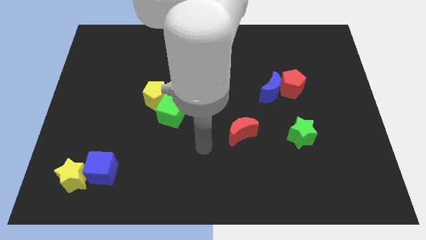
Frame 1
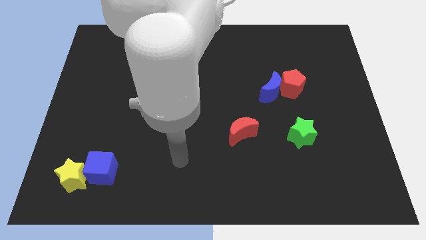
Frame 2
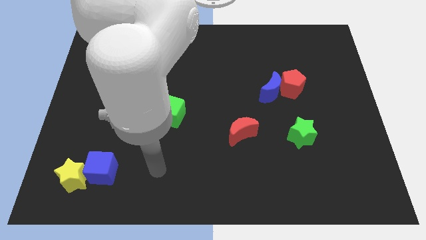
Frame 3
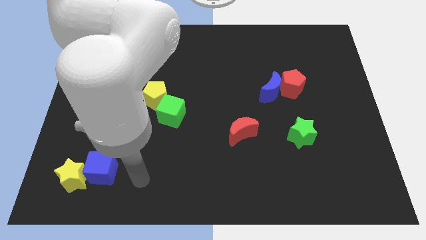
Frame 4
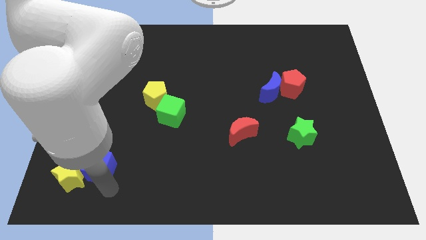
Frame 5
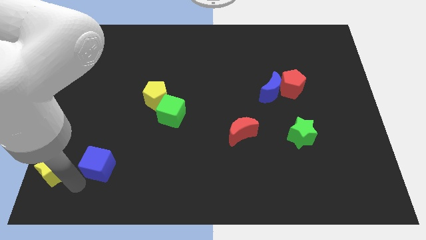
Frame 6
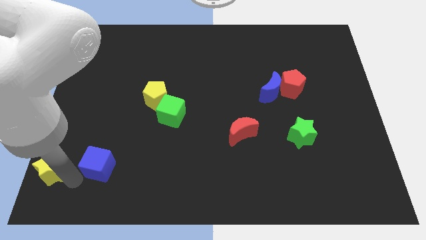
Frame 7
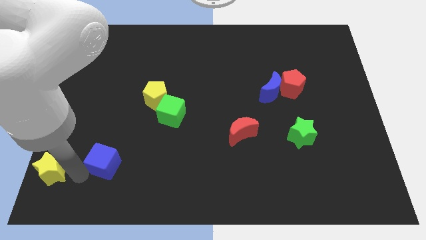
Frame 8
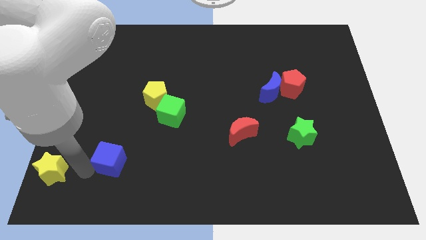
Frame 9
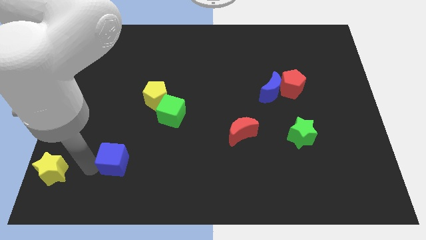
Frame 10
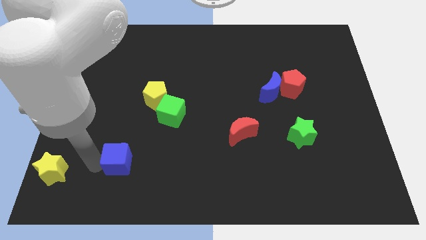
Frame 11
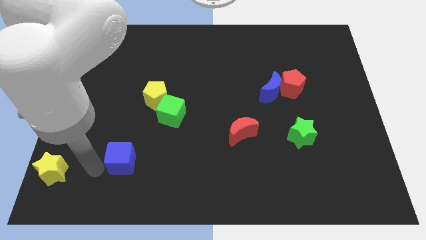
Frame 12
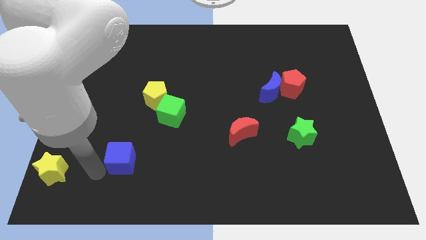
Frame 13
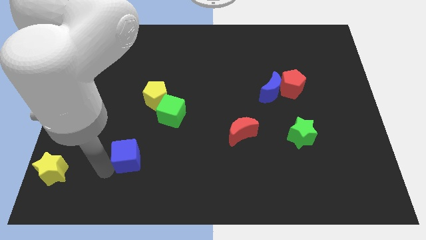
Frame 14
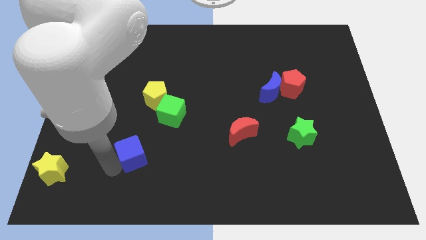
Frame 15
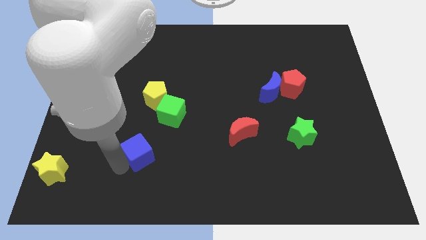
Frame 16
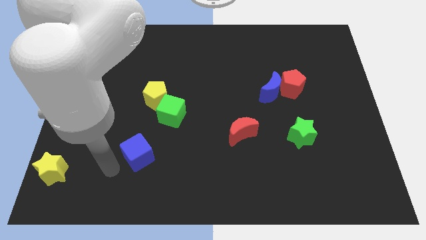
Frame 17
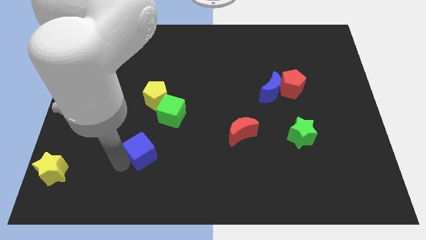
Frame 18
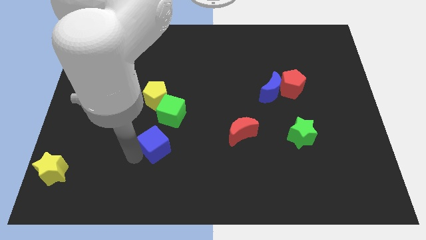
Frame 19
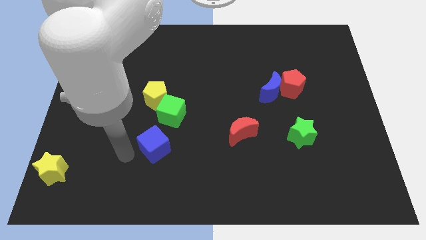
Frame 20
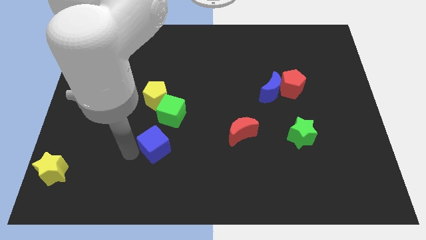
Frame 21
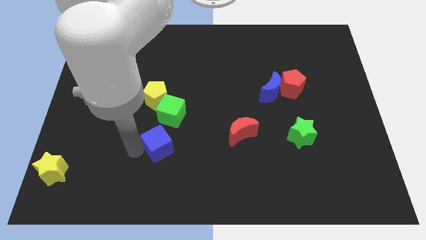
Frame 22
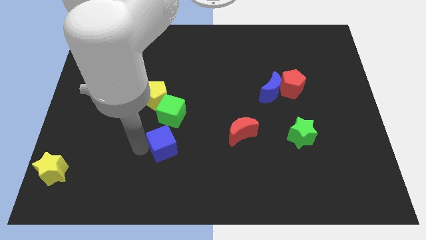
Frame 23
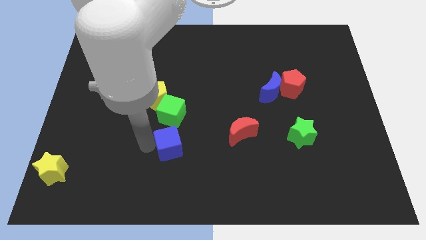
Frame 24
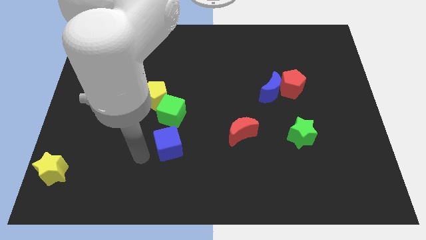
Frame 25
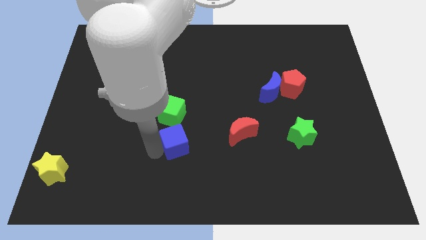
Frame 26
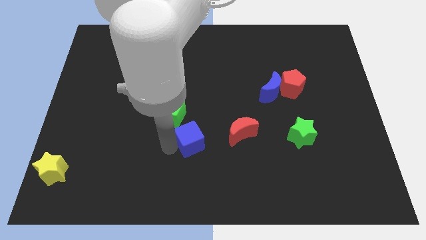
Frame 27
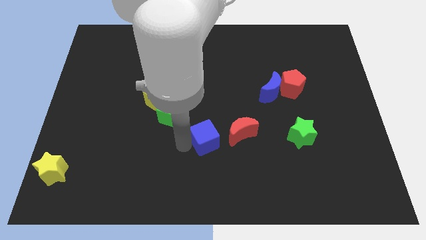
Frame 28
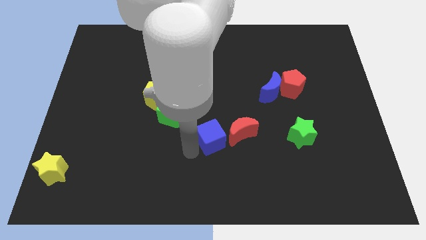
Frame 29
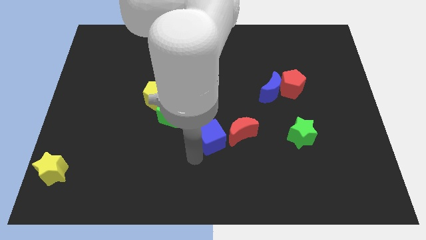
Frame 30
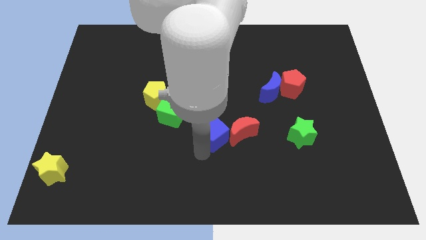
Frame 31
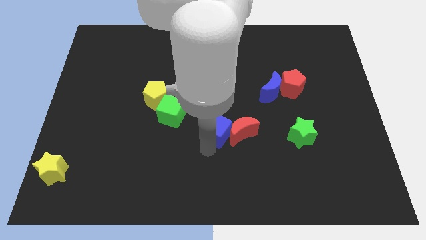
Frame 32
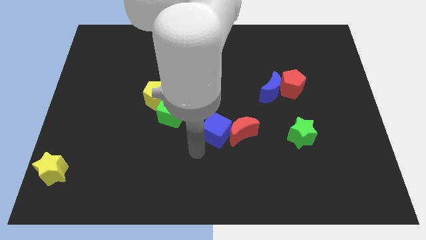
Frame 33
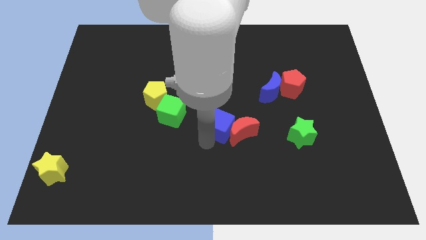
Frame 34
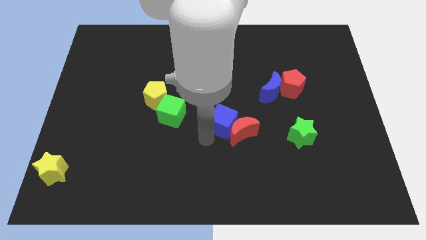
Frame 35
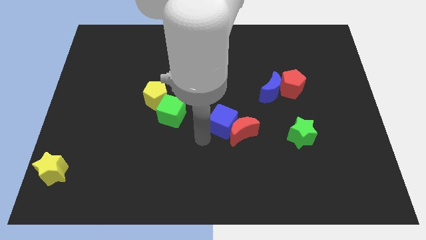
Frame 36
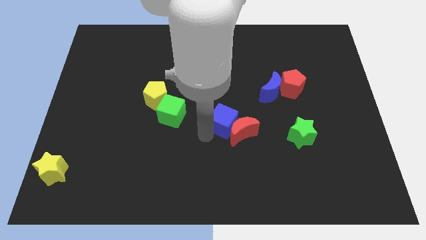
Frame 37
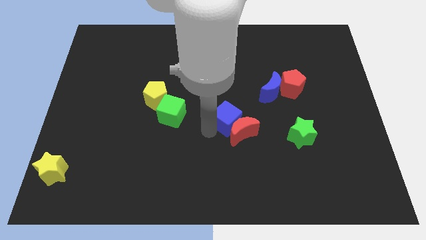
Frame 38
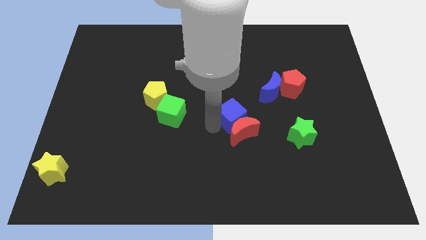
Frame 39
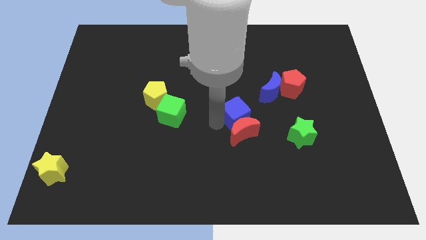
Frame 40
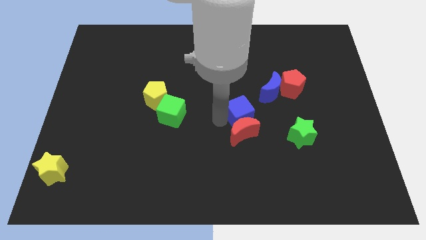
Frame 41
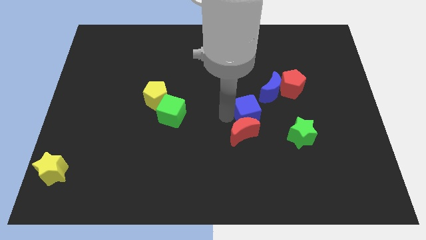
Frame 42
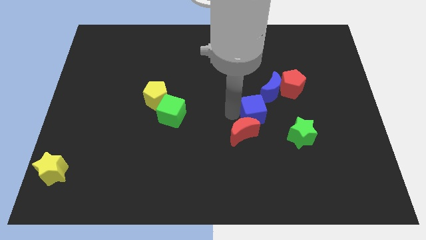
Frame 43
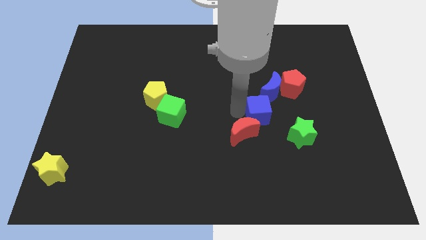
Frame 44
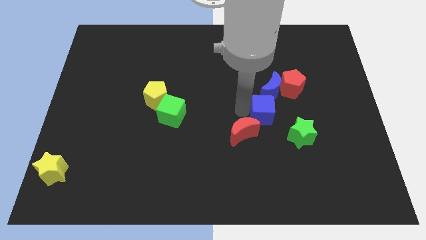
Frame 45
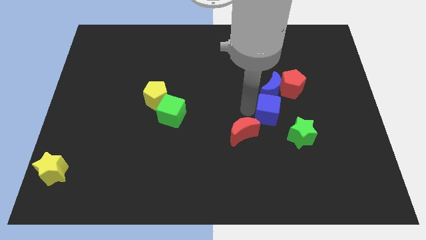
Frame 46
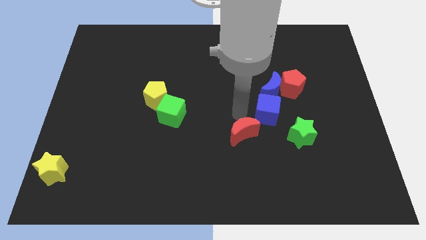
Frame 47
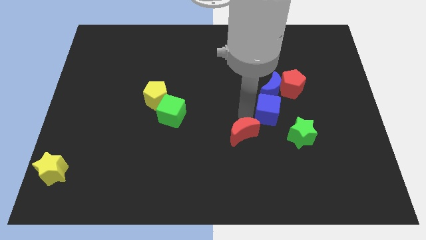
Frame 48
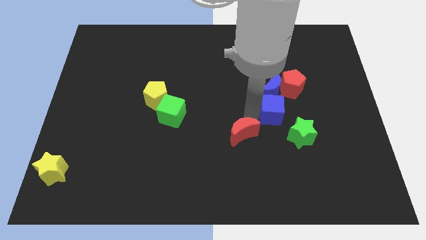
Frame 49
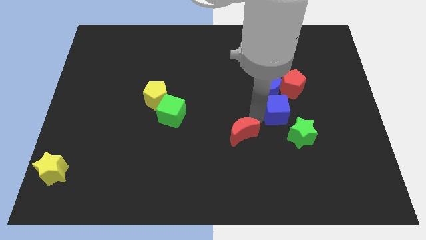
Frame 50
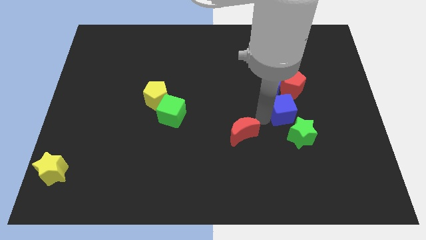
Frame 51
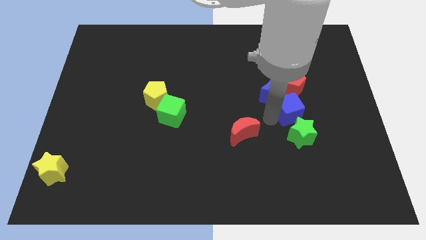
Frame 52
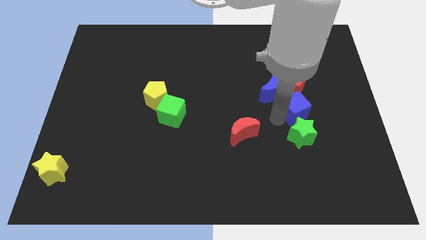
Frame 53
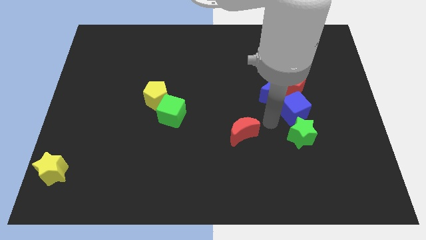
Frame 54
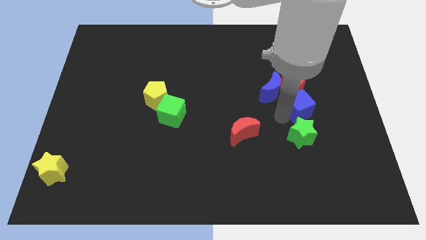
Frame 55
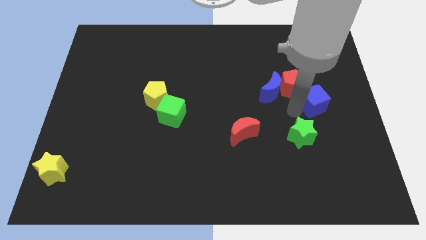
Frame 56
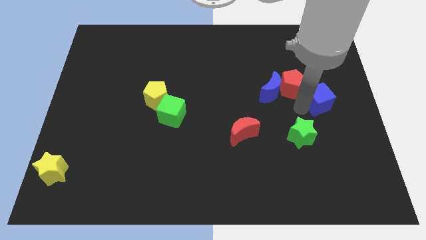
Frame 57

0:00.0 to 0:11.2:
push the blue cube to the center right
